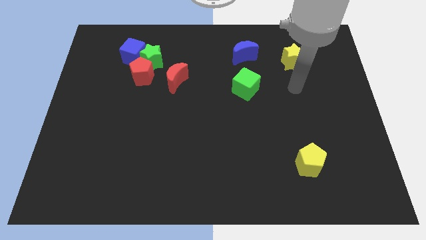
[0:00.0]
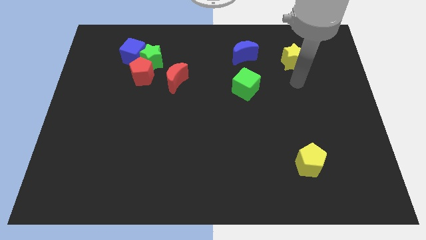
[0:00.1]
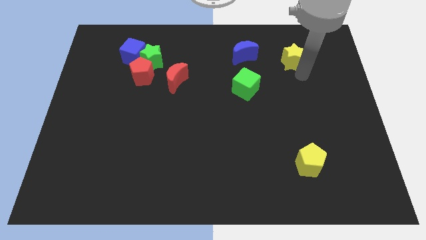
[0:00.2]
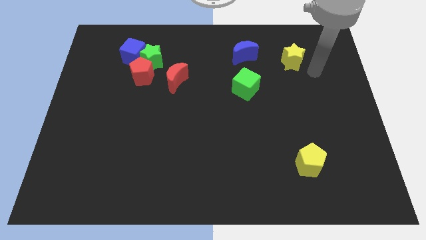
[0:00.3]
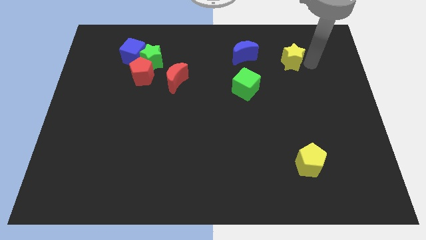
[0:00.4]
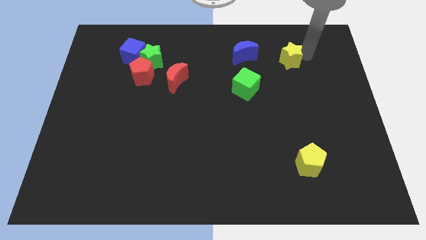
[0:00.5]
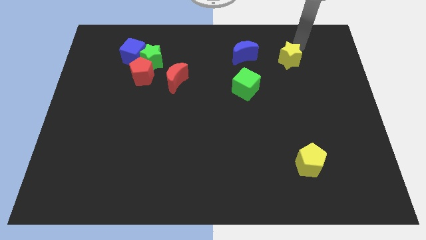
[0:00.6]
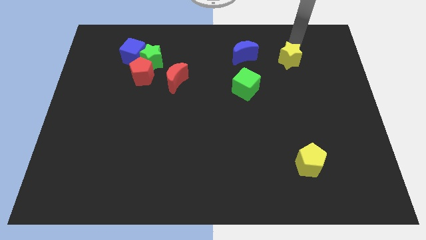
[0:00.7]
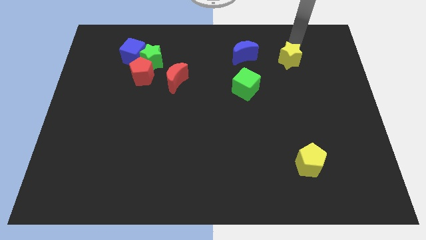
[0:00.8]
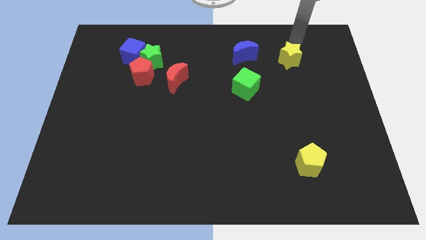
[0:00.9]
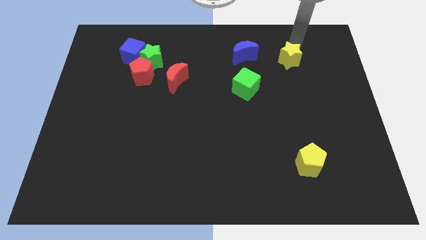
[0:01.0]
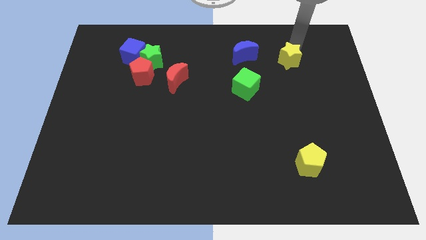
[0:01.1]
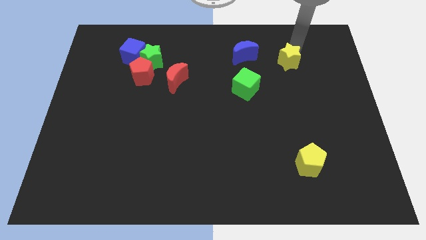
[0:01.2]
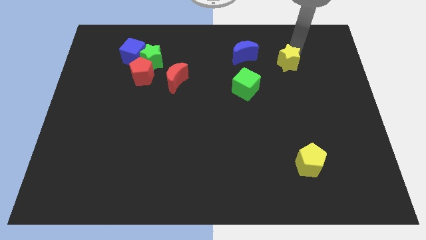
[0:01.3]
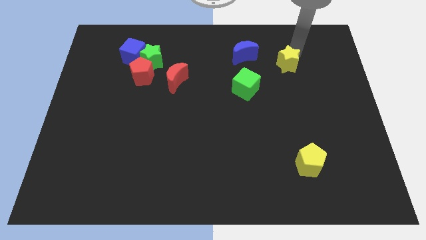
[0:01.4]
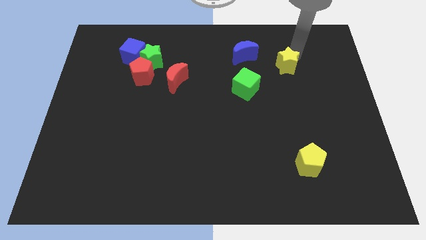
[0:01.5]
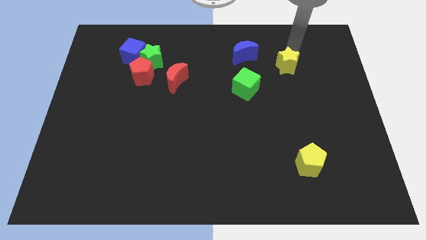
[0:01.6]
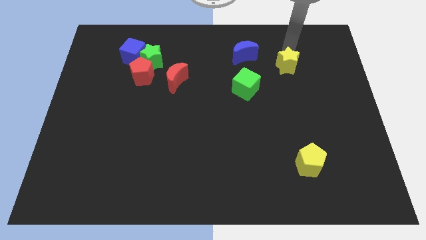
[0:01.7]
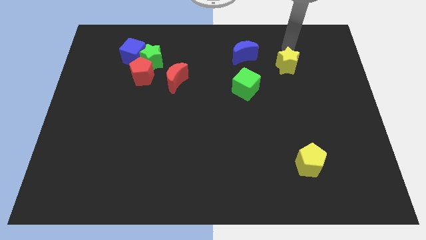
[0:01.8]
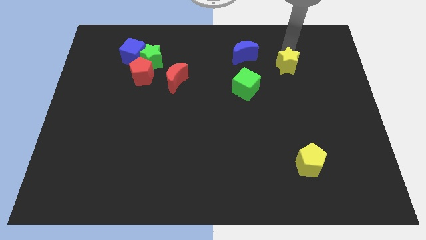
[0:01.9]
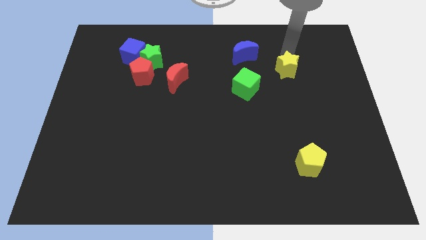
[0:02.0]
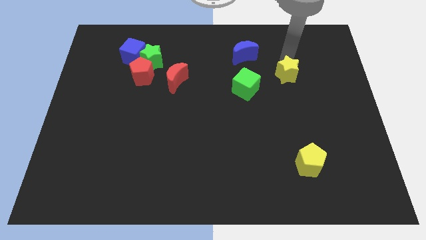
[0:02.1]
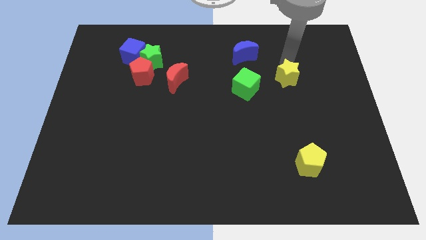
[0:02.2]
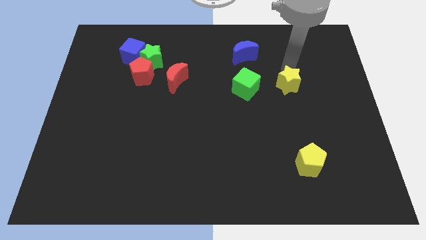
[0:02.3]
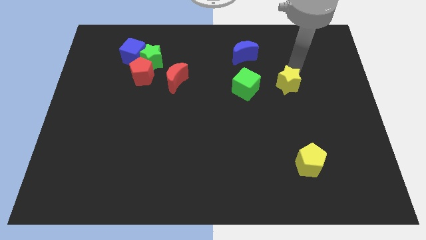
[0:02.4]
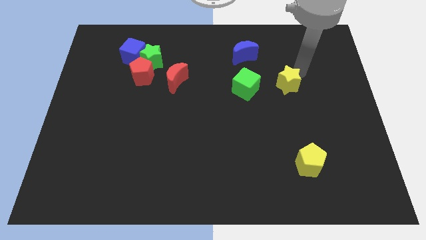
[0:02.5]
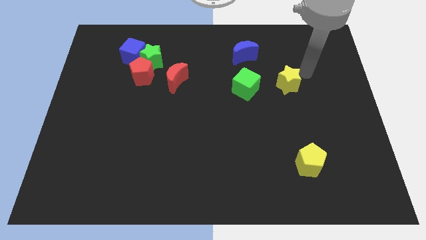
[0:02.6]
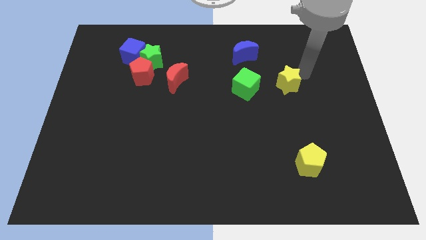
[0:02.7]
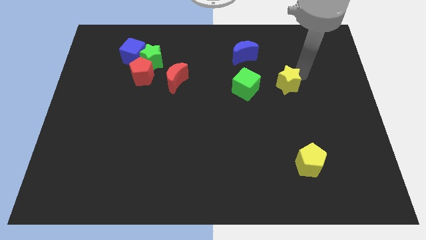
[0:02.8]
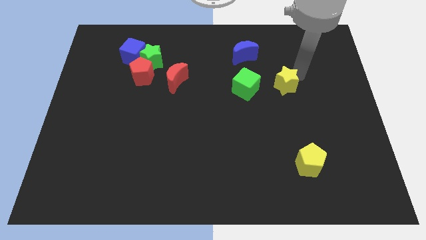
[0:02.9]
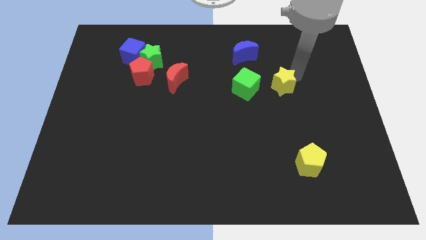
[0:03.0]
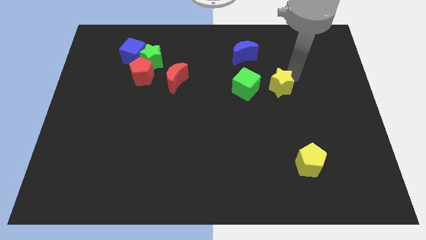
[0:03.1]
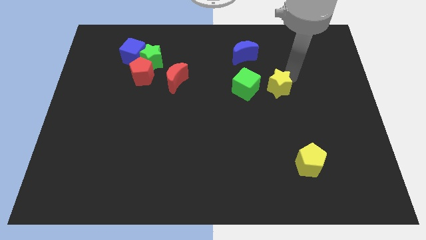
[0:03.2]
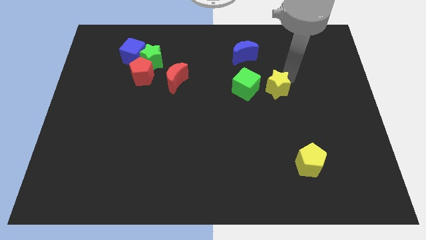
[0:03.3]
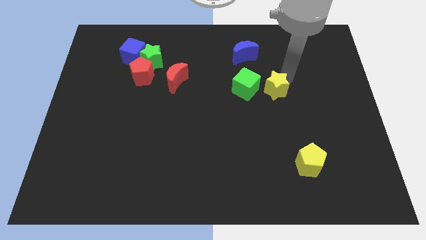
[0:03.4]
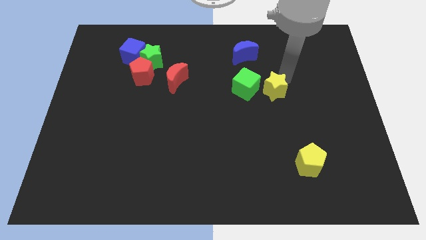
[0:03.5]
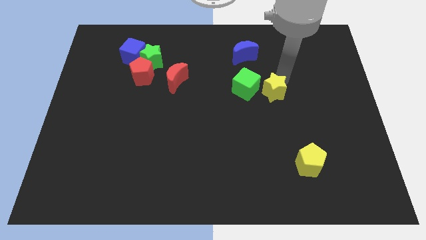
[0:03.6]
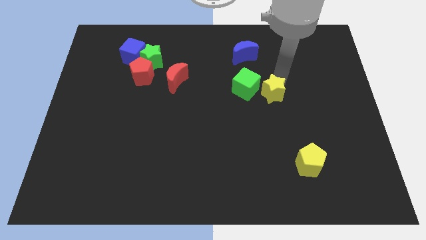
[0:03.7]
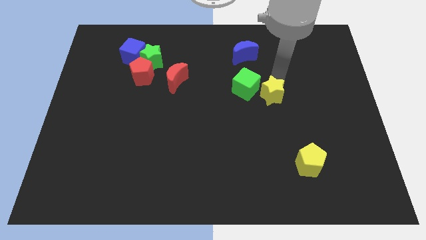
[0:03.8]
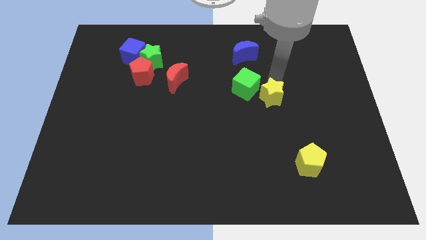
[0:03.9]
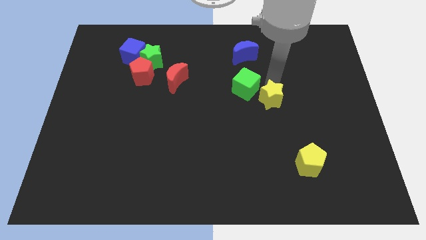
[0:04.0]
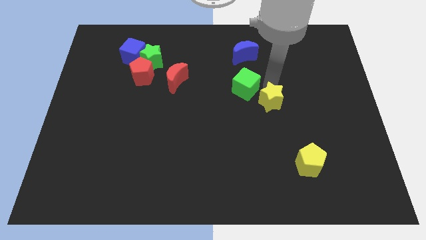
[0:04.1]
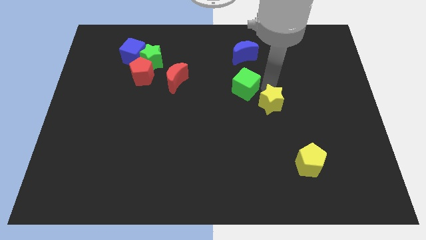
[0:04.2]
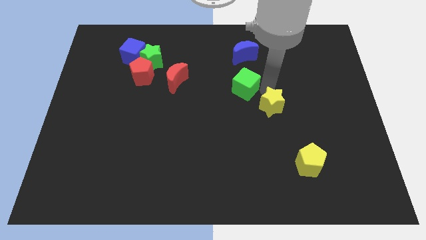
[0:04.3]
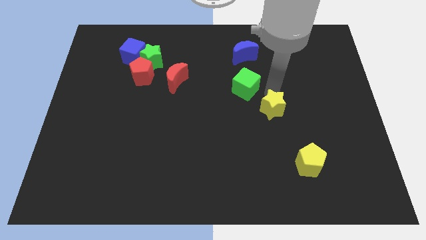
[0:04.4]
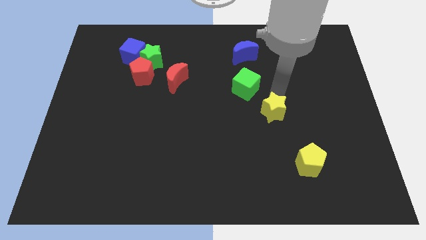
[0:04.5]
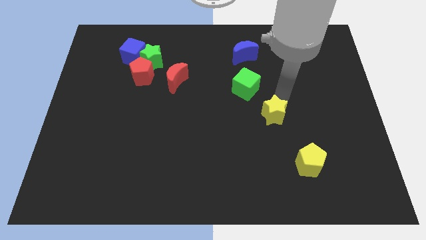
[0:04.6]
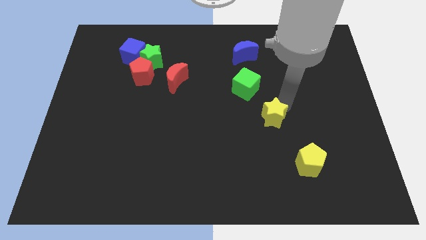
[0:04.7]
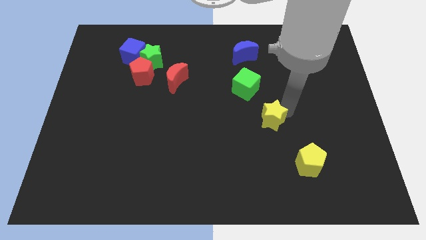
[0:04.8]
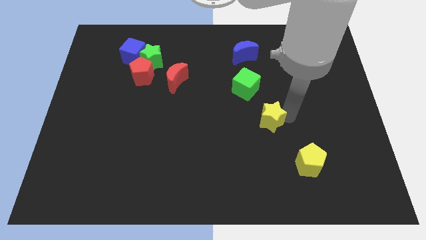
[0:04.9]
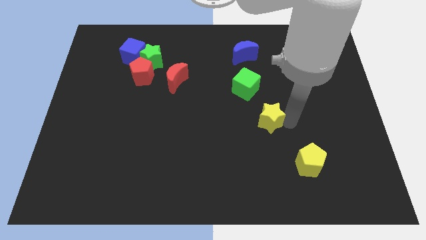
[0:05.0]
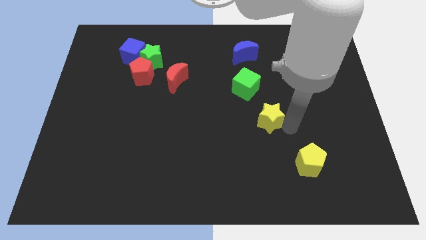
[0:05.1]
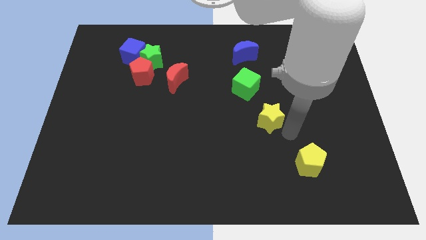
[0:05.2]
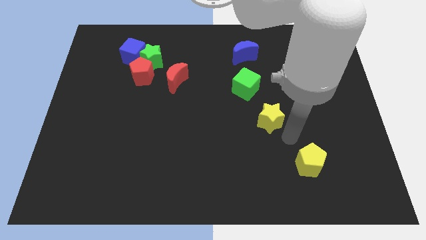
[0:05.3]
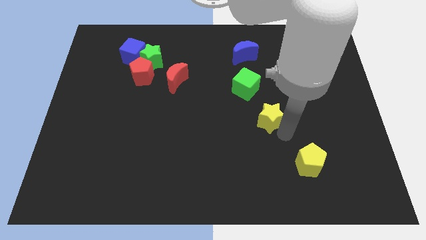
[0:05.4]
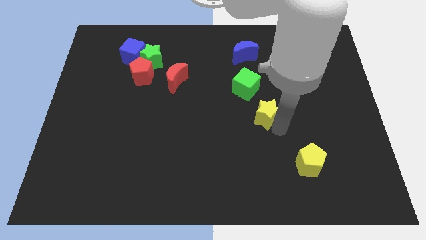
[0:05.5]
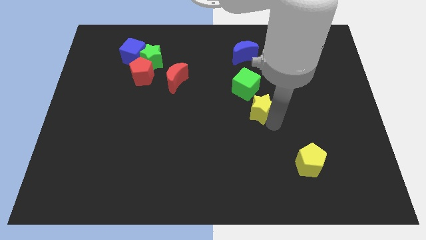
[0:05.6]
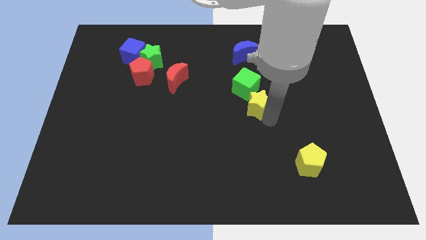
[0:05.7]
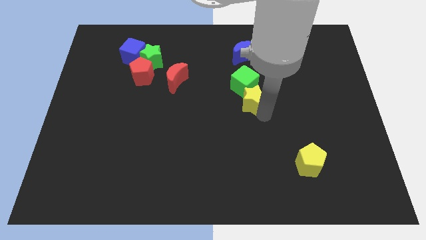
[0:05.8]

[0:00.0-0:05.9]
push the yellow star to the bottom of the blue moon
